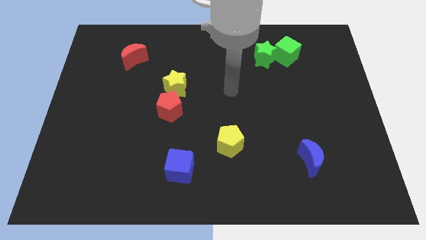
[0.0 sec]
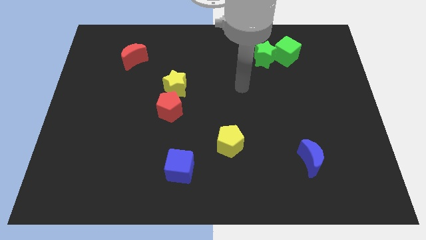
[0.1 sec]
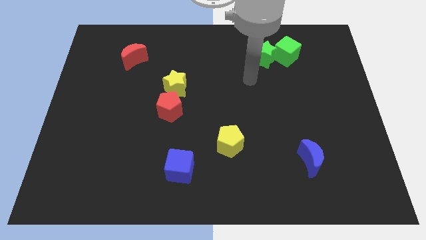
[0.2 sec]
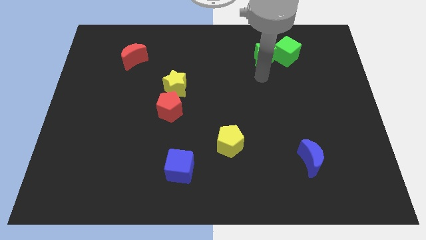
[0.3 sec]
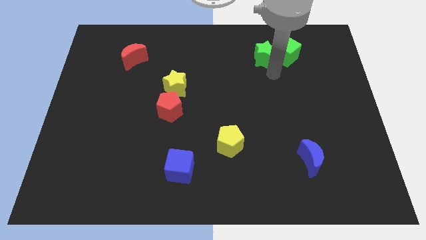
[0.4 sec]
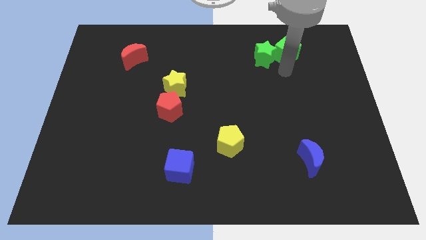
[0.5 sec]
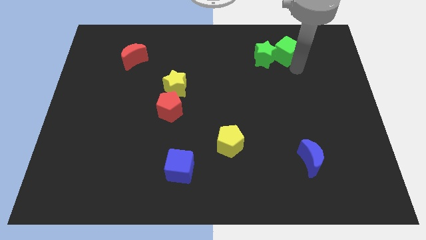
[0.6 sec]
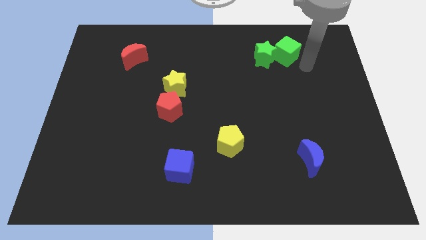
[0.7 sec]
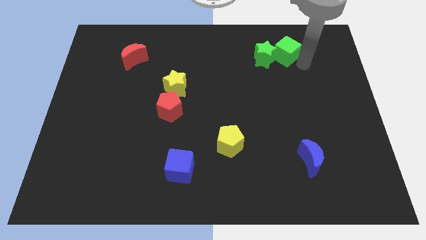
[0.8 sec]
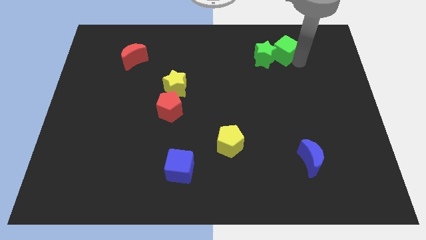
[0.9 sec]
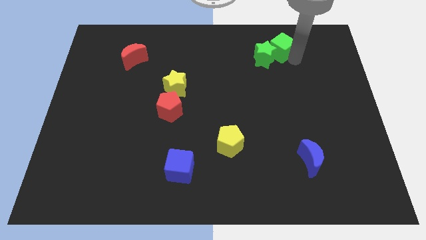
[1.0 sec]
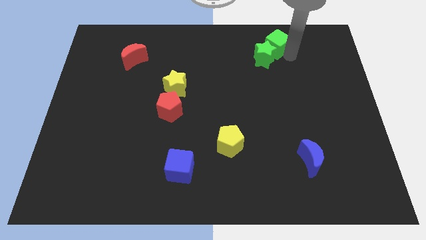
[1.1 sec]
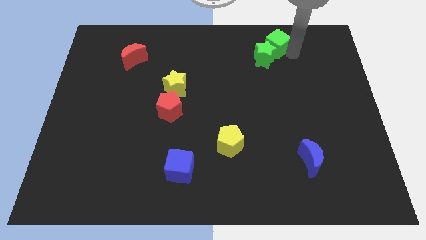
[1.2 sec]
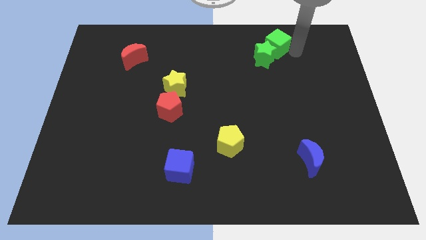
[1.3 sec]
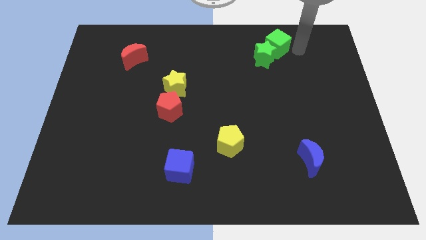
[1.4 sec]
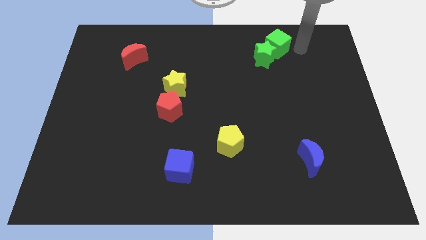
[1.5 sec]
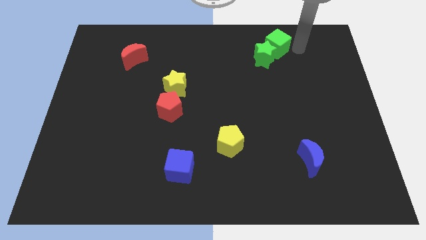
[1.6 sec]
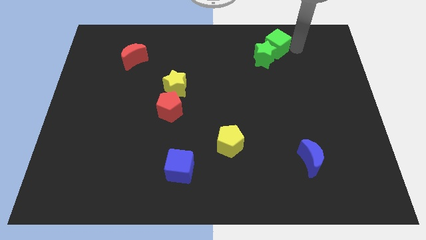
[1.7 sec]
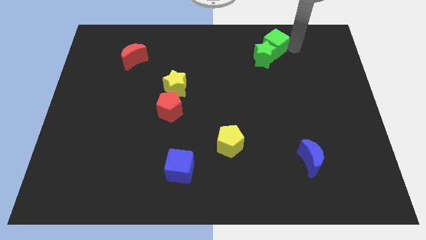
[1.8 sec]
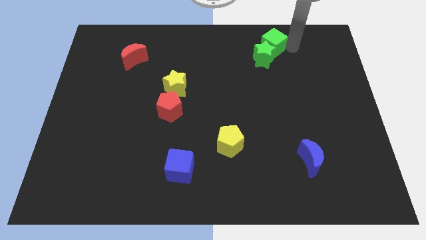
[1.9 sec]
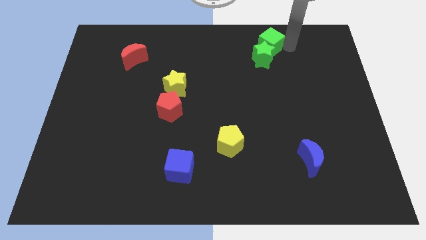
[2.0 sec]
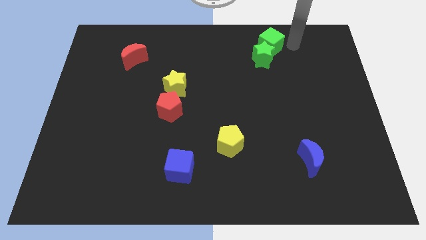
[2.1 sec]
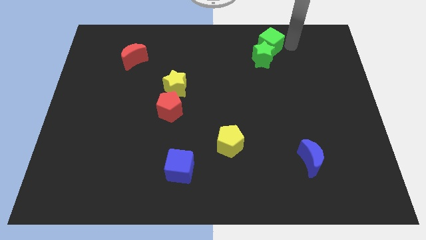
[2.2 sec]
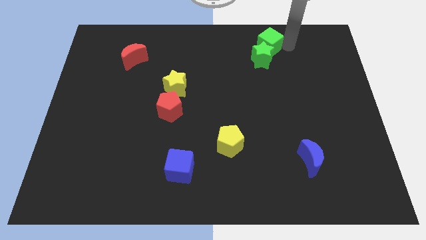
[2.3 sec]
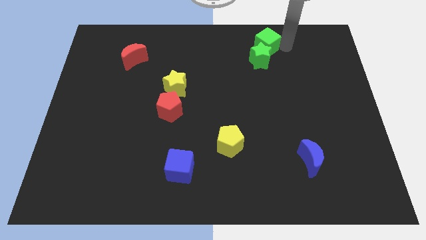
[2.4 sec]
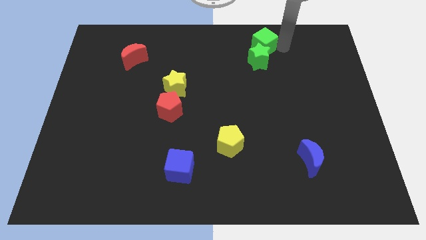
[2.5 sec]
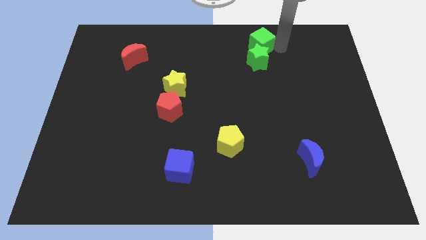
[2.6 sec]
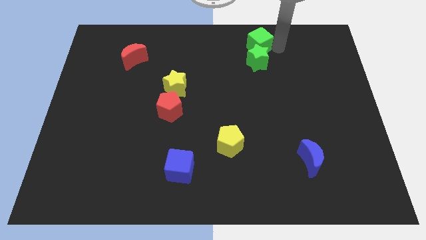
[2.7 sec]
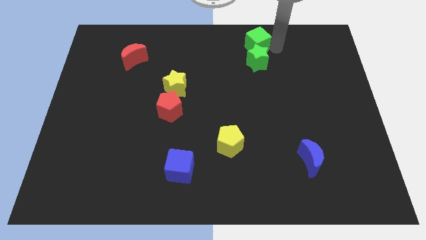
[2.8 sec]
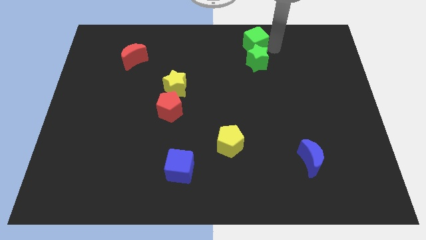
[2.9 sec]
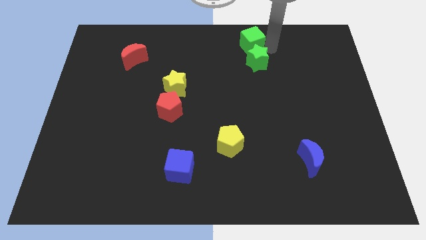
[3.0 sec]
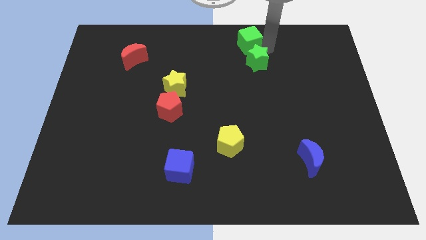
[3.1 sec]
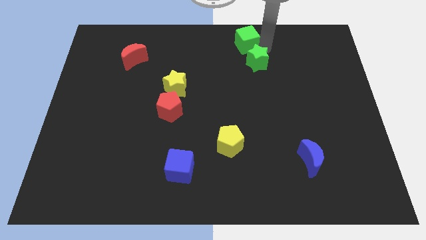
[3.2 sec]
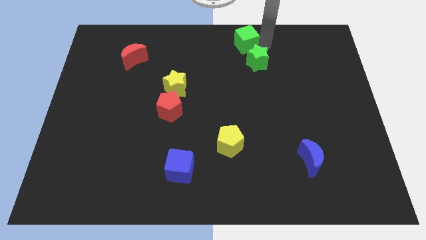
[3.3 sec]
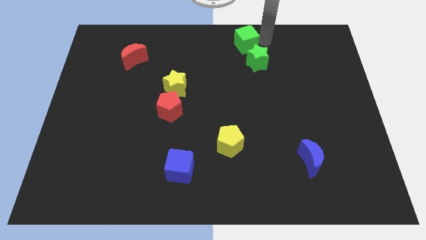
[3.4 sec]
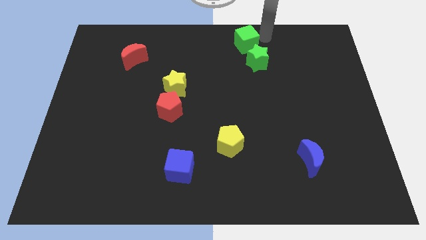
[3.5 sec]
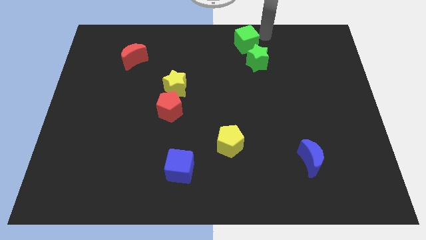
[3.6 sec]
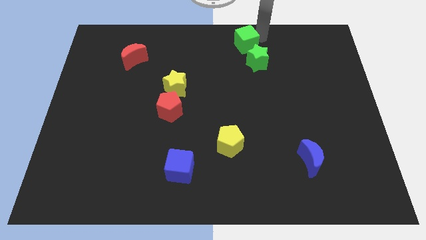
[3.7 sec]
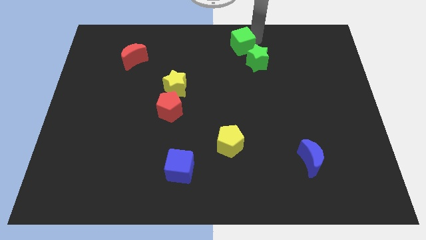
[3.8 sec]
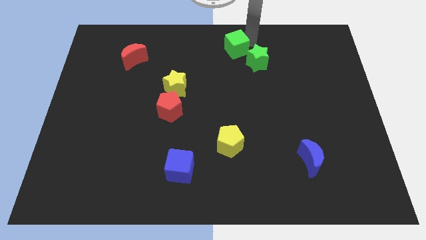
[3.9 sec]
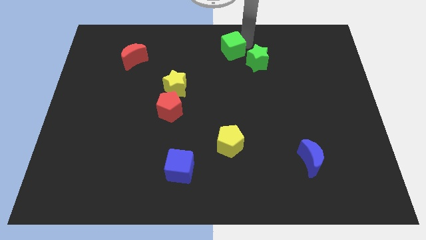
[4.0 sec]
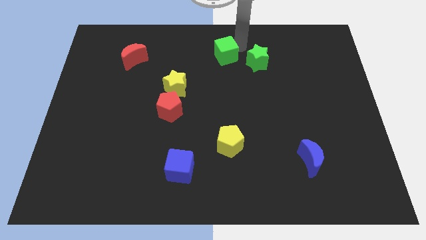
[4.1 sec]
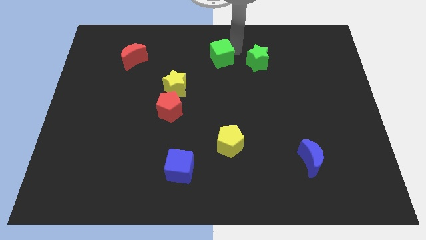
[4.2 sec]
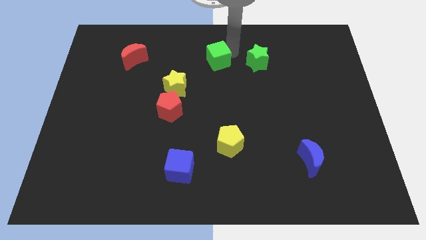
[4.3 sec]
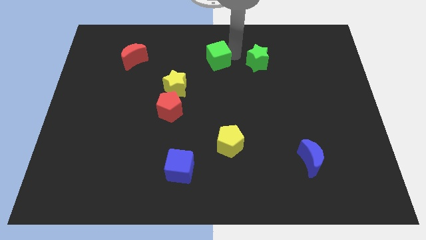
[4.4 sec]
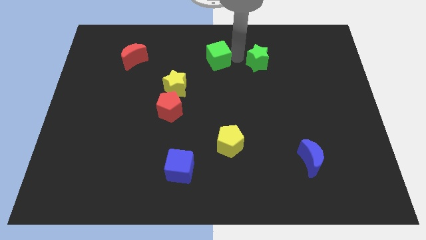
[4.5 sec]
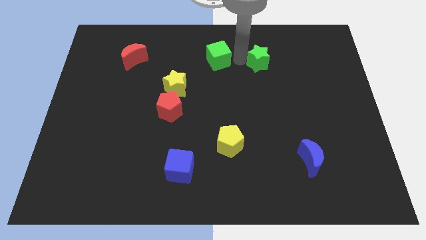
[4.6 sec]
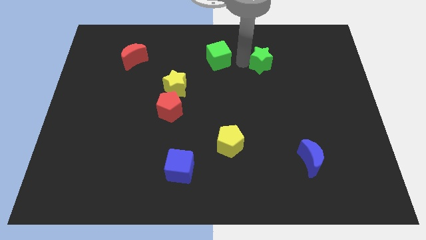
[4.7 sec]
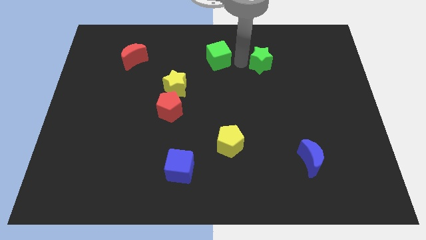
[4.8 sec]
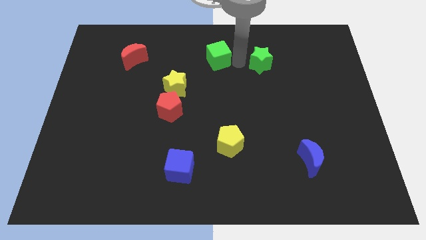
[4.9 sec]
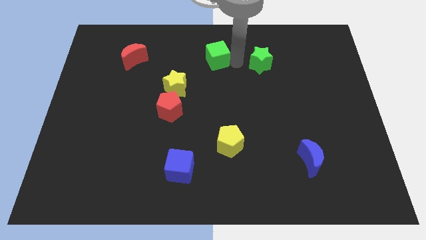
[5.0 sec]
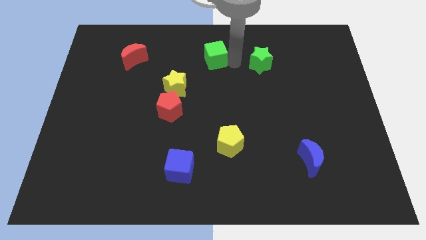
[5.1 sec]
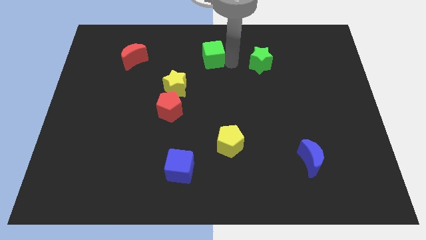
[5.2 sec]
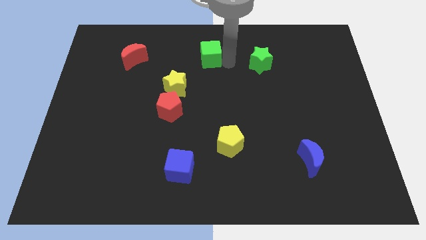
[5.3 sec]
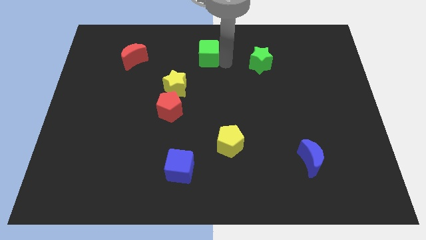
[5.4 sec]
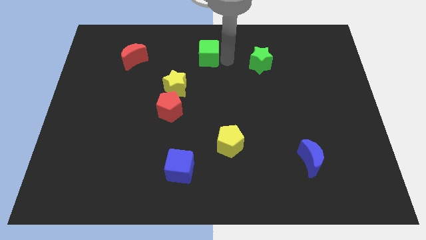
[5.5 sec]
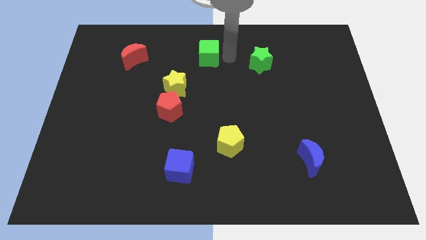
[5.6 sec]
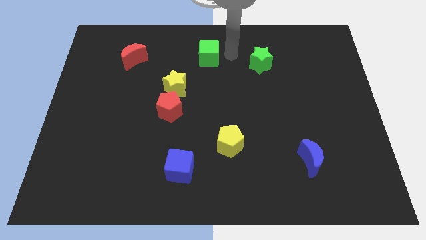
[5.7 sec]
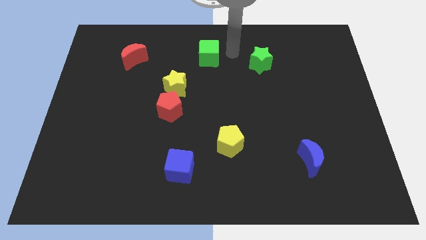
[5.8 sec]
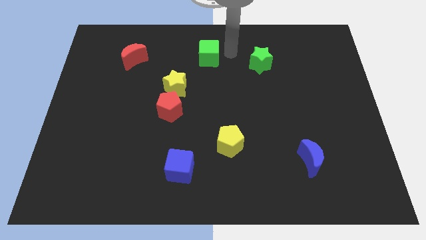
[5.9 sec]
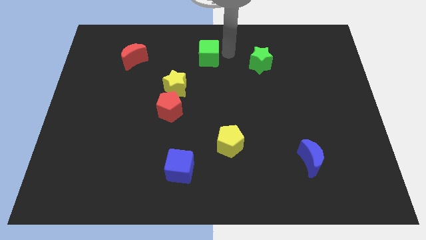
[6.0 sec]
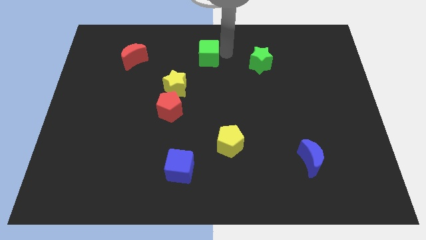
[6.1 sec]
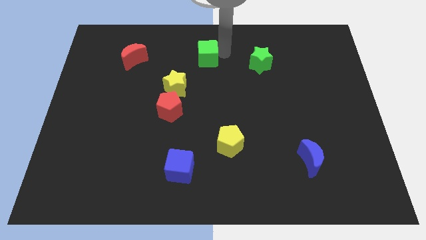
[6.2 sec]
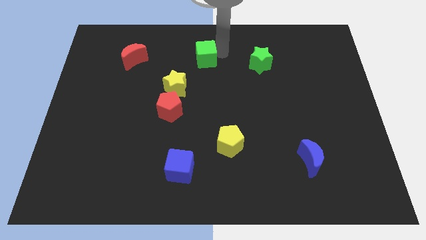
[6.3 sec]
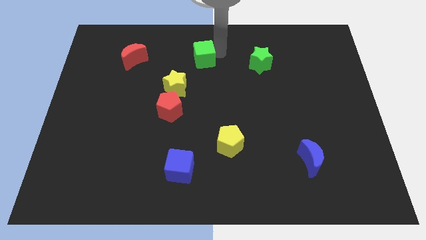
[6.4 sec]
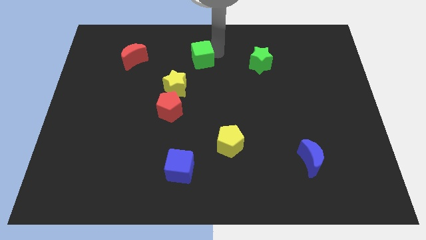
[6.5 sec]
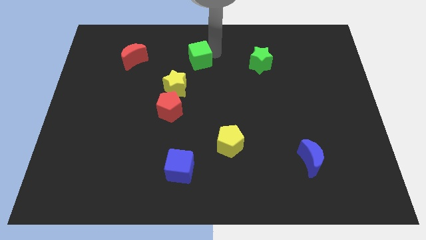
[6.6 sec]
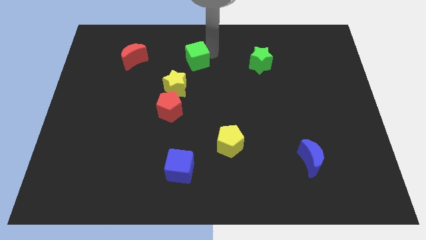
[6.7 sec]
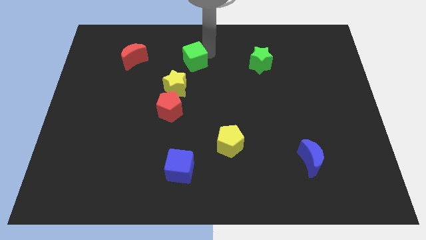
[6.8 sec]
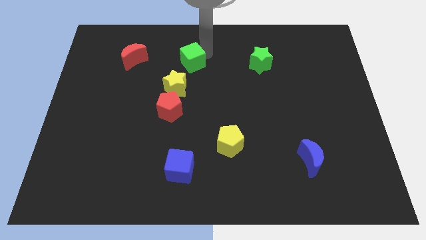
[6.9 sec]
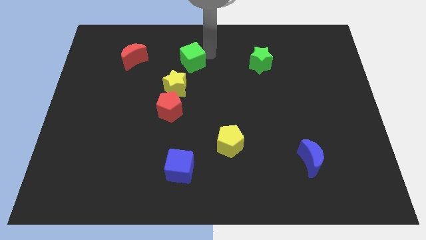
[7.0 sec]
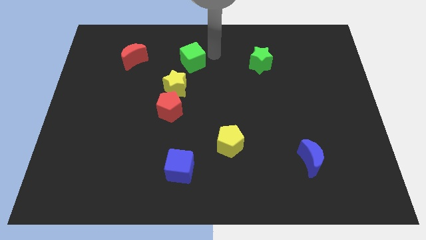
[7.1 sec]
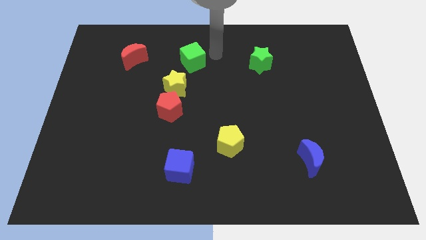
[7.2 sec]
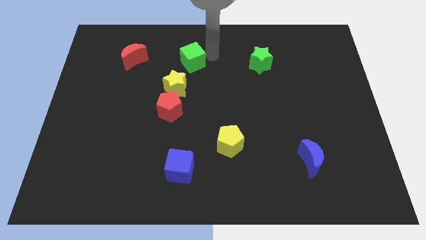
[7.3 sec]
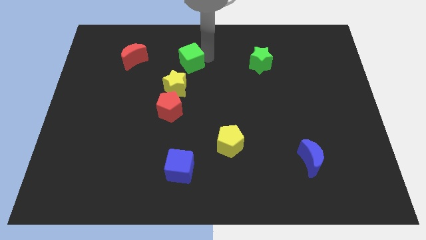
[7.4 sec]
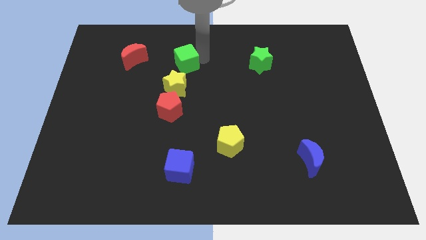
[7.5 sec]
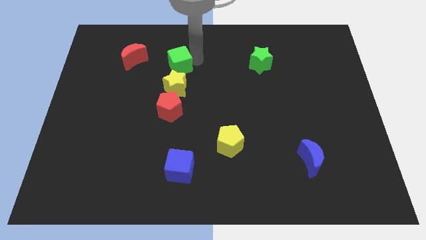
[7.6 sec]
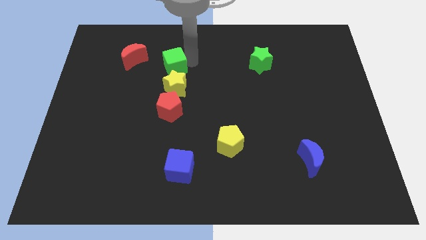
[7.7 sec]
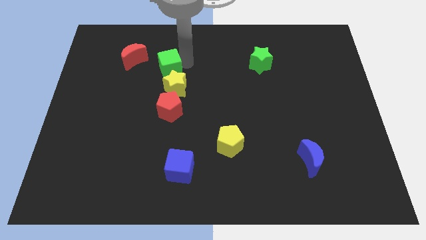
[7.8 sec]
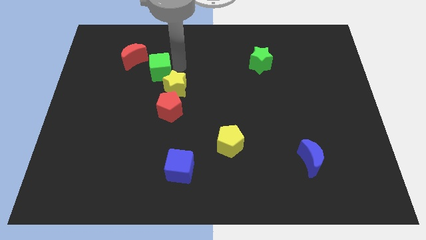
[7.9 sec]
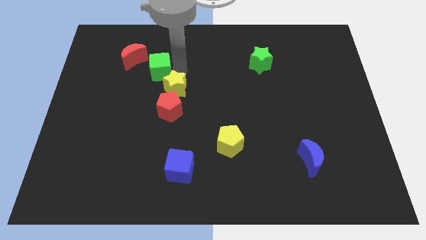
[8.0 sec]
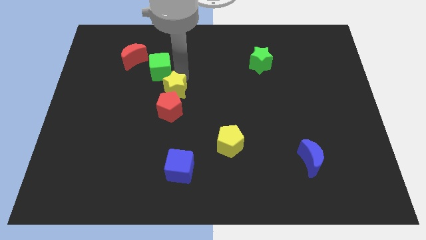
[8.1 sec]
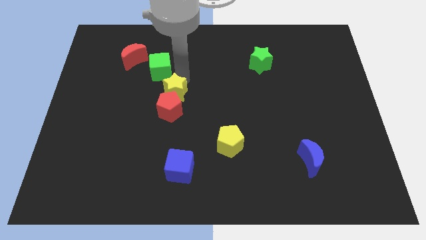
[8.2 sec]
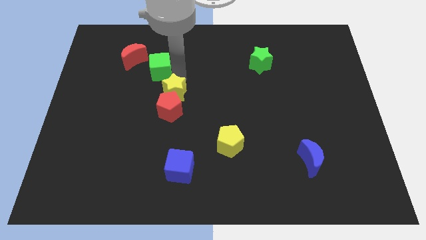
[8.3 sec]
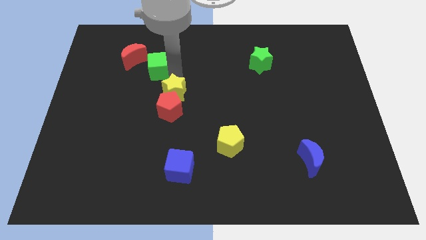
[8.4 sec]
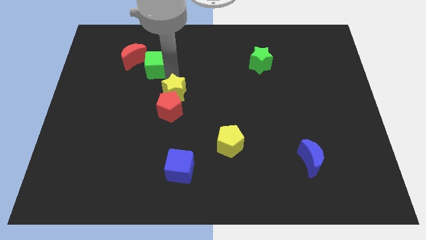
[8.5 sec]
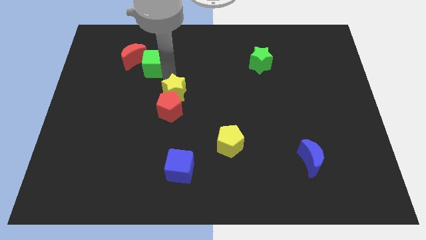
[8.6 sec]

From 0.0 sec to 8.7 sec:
move the green cube next to the red moon
